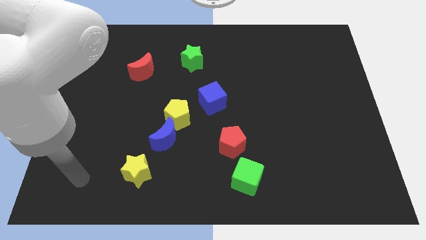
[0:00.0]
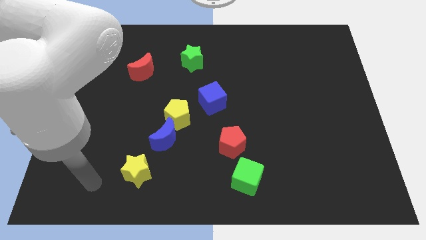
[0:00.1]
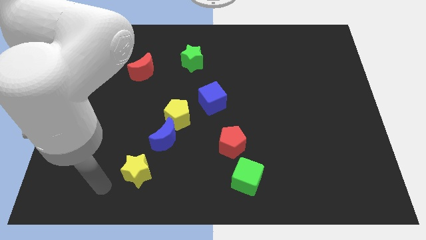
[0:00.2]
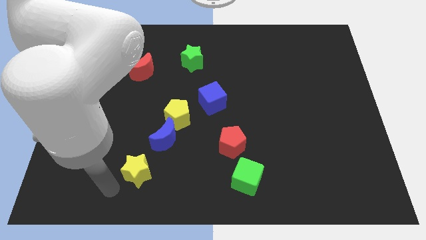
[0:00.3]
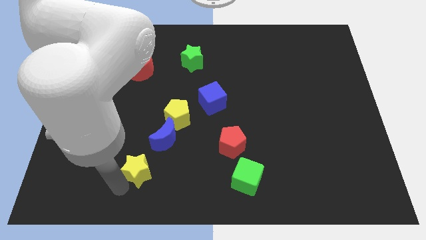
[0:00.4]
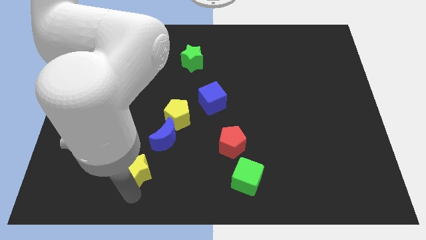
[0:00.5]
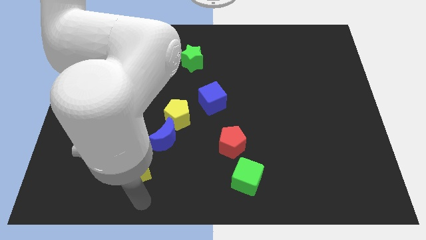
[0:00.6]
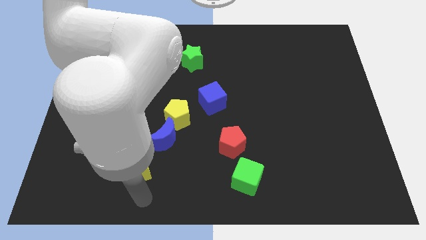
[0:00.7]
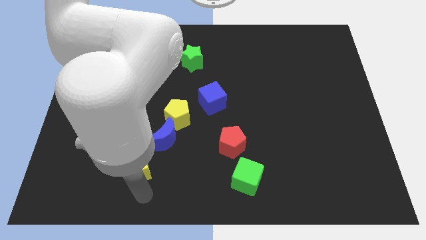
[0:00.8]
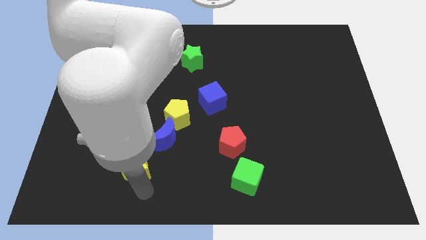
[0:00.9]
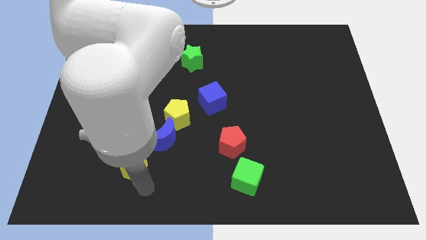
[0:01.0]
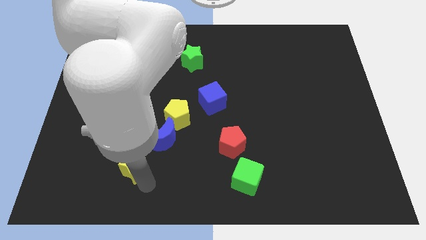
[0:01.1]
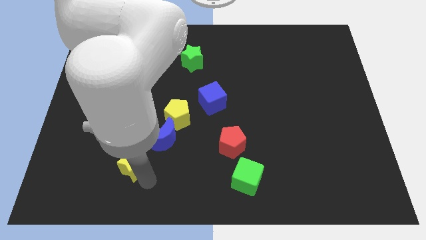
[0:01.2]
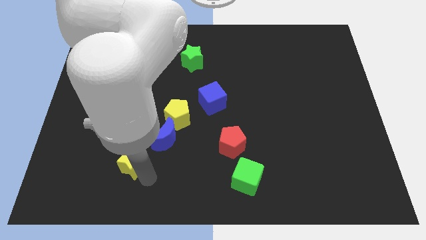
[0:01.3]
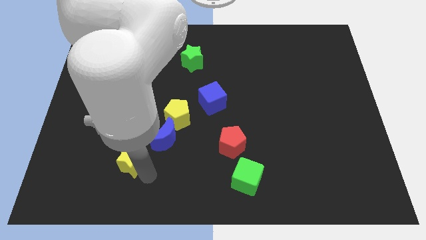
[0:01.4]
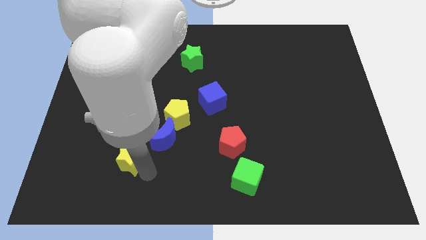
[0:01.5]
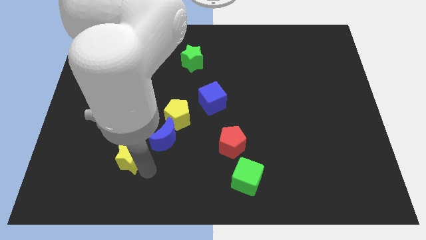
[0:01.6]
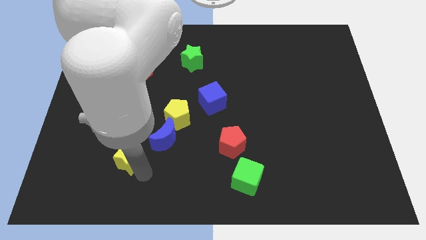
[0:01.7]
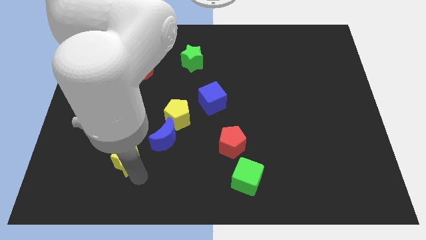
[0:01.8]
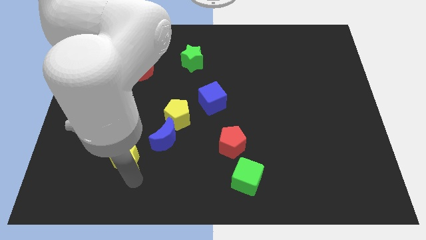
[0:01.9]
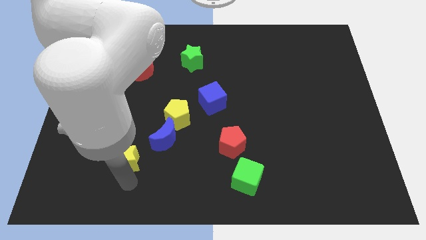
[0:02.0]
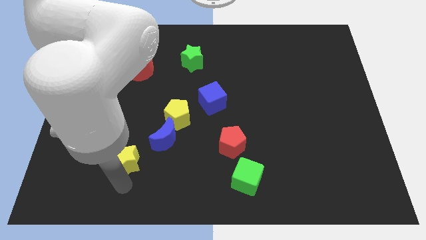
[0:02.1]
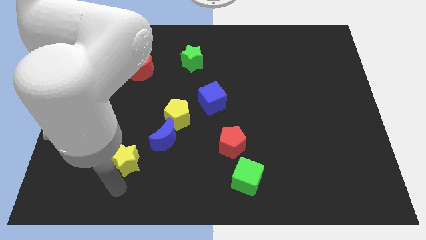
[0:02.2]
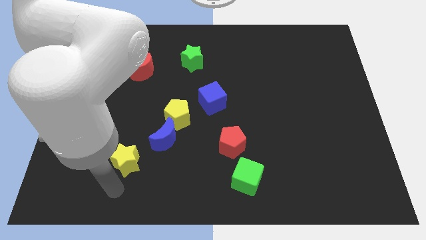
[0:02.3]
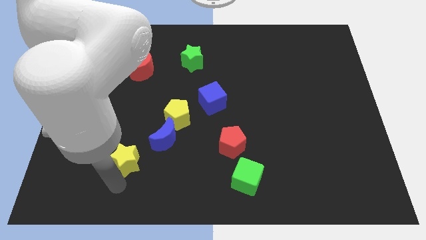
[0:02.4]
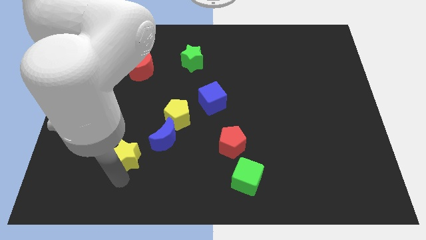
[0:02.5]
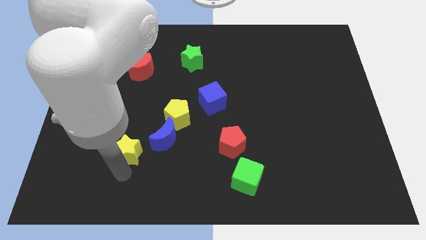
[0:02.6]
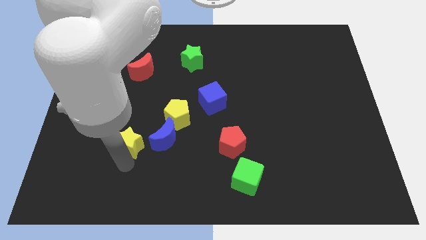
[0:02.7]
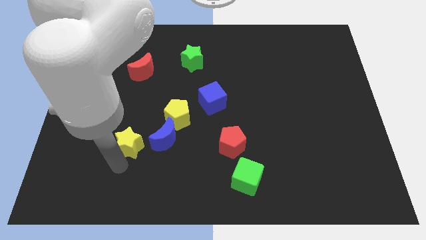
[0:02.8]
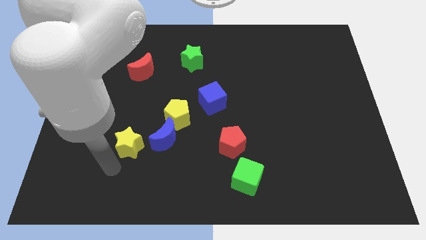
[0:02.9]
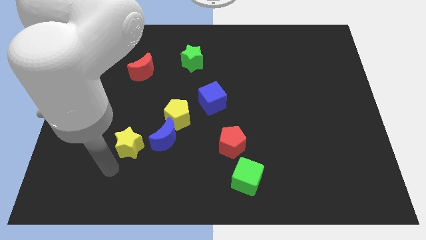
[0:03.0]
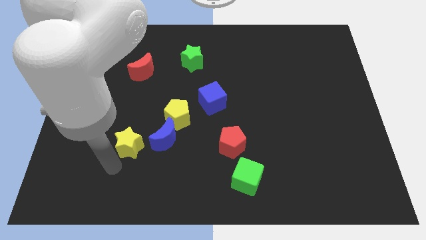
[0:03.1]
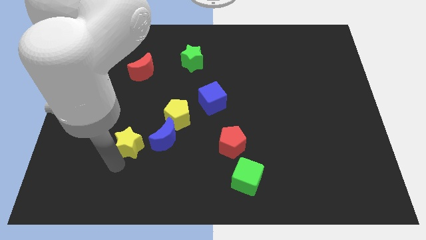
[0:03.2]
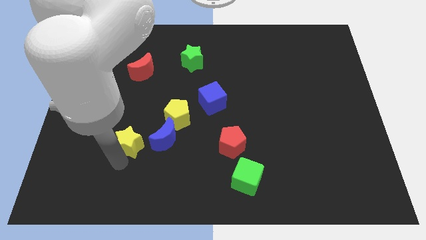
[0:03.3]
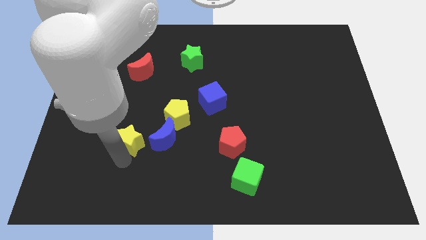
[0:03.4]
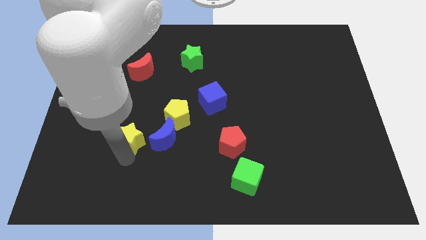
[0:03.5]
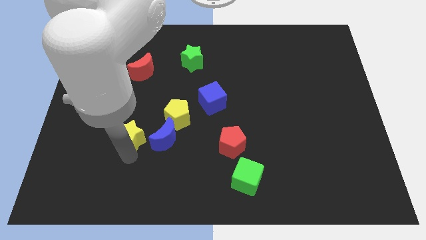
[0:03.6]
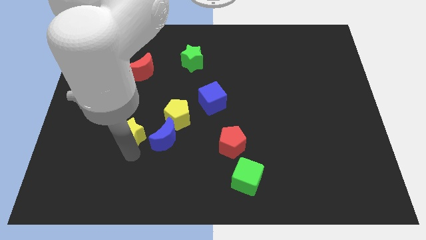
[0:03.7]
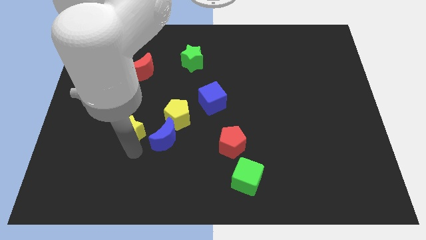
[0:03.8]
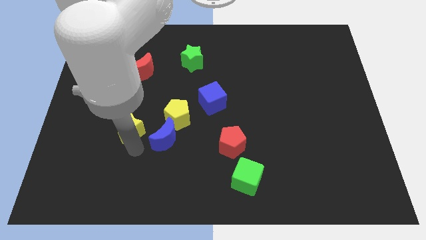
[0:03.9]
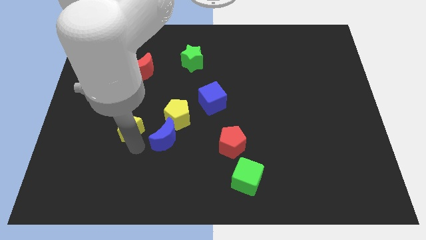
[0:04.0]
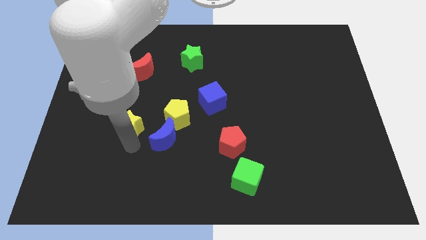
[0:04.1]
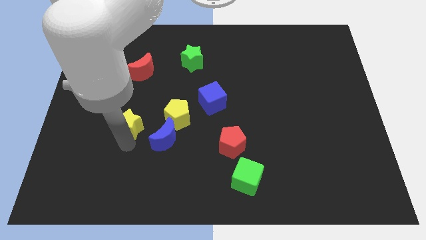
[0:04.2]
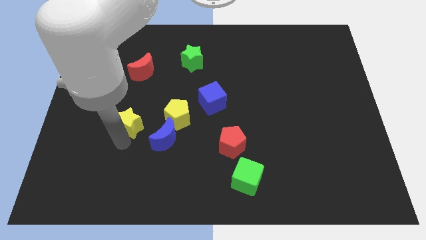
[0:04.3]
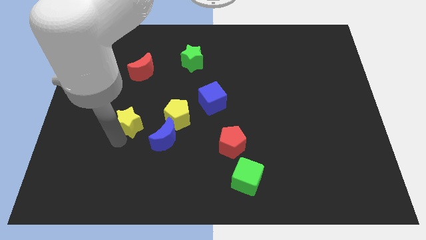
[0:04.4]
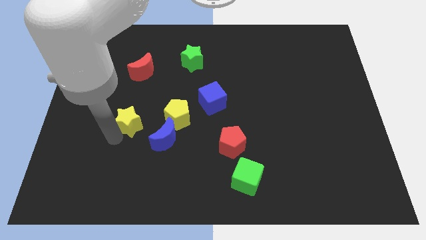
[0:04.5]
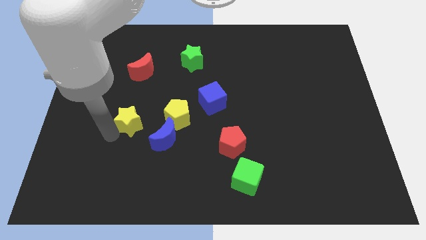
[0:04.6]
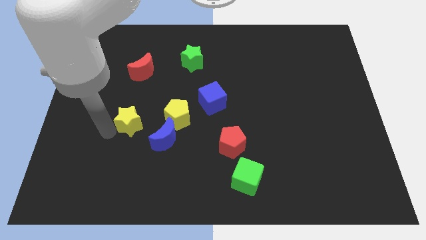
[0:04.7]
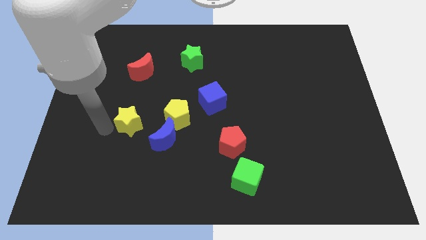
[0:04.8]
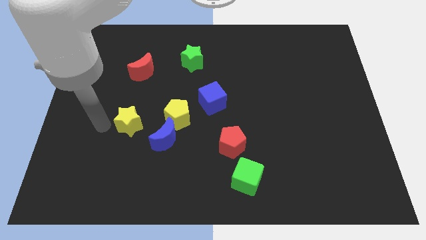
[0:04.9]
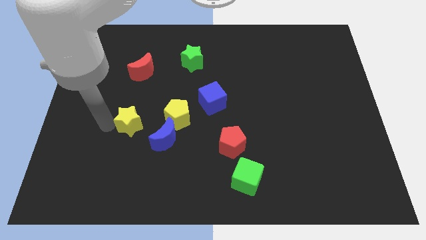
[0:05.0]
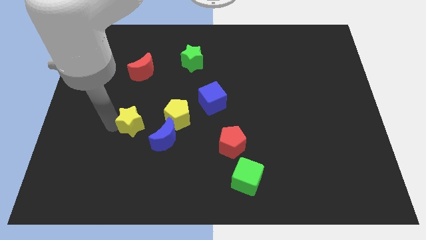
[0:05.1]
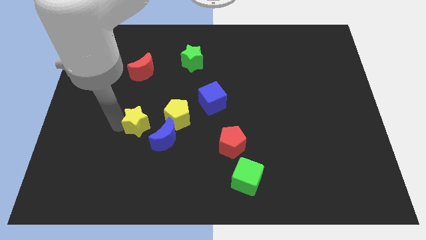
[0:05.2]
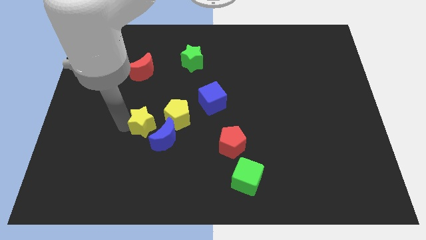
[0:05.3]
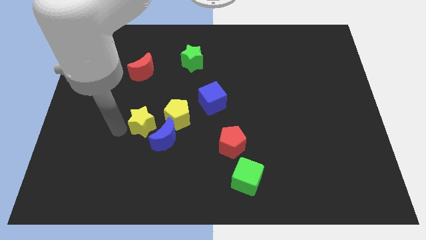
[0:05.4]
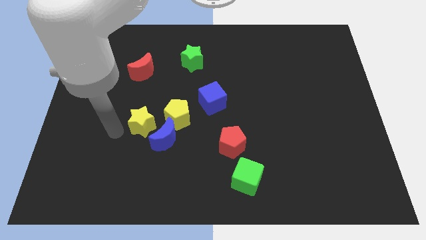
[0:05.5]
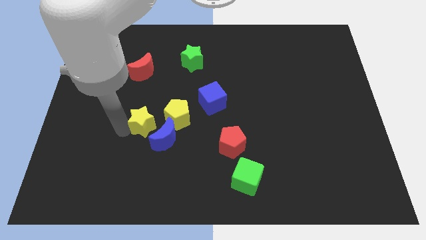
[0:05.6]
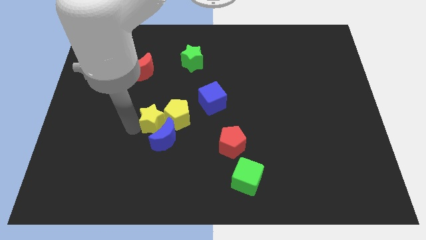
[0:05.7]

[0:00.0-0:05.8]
slide the yellow star next to the yellow pentagon

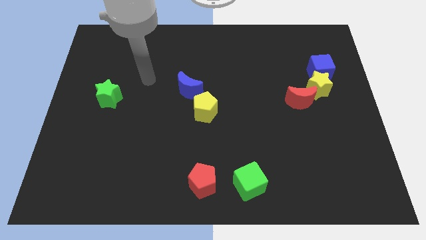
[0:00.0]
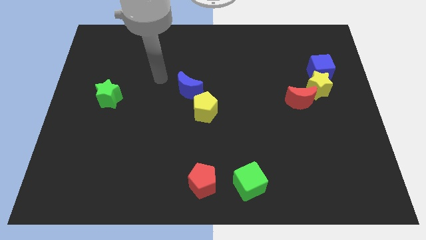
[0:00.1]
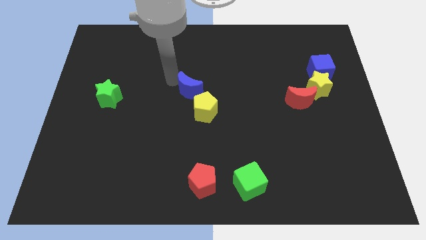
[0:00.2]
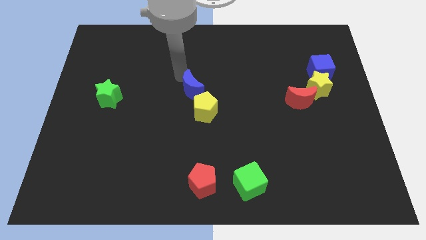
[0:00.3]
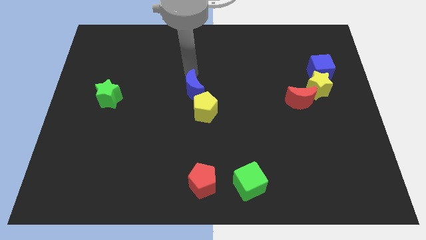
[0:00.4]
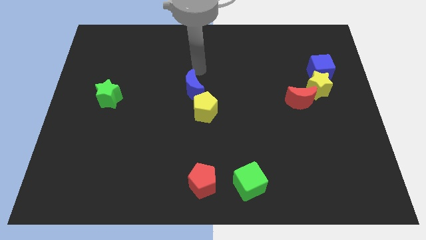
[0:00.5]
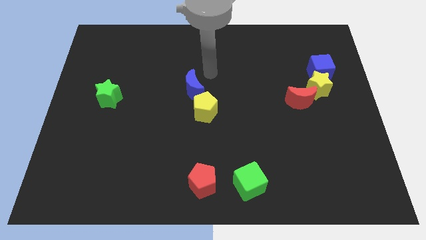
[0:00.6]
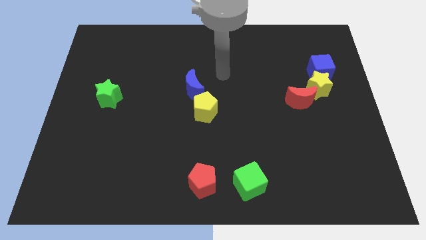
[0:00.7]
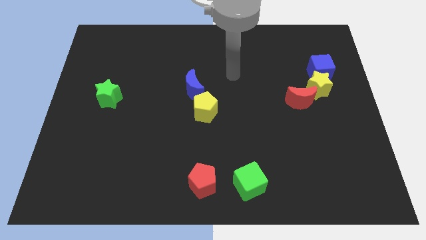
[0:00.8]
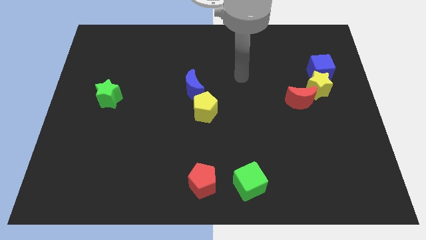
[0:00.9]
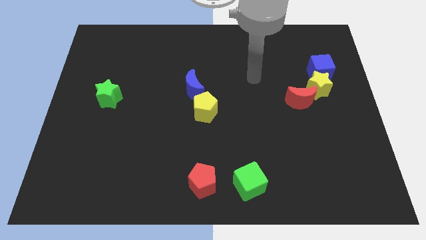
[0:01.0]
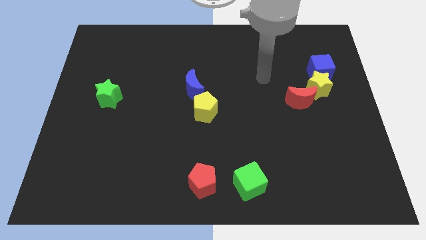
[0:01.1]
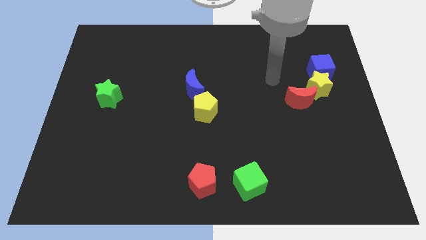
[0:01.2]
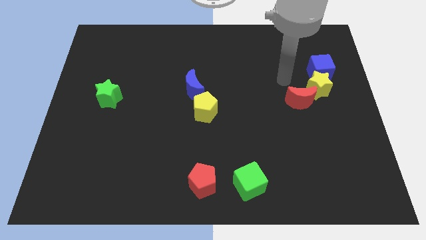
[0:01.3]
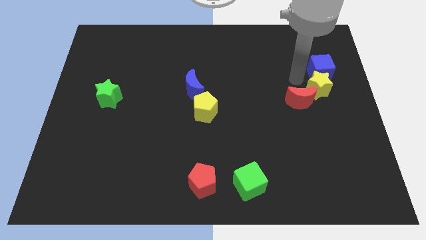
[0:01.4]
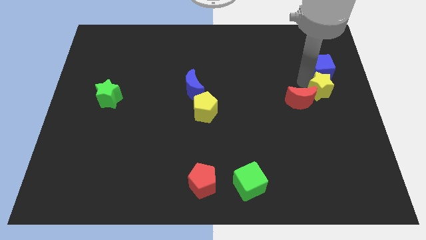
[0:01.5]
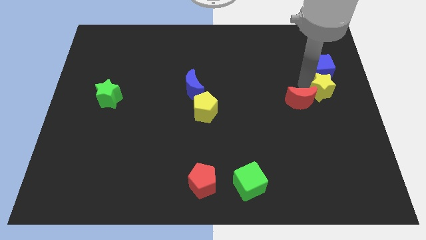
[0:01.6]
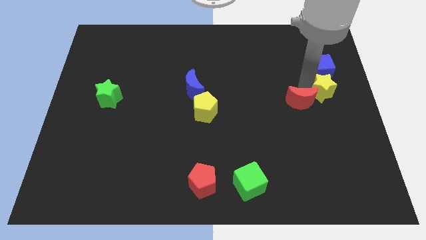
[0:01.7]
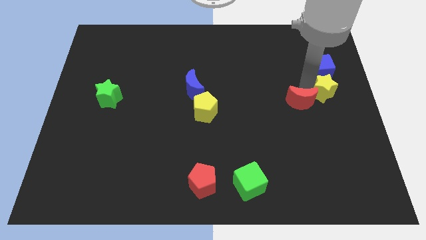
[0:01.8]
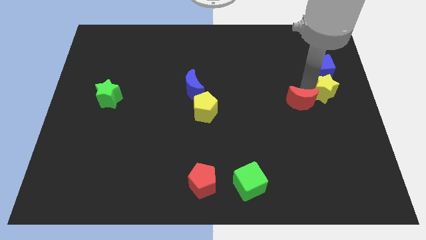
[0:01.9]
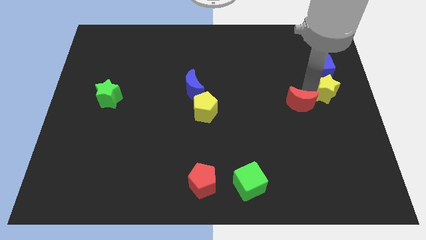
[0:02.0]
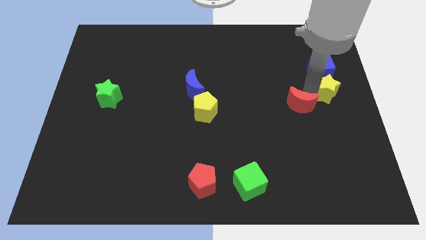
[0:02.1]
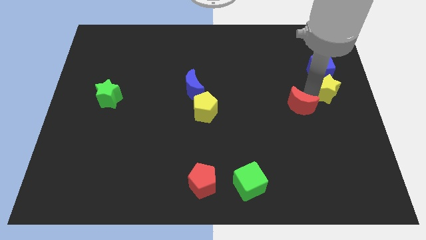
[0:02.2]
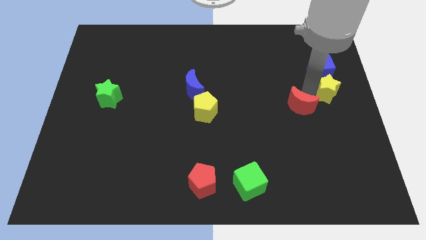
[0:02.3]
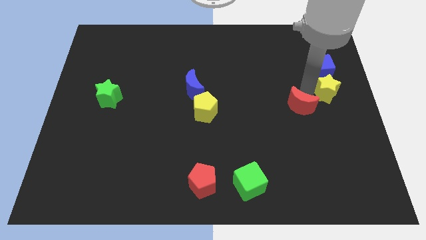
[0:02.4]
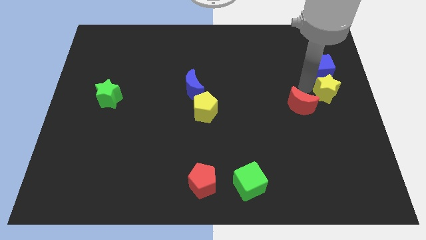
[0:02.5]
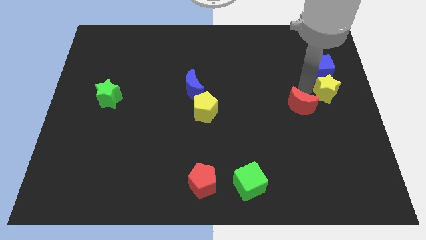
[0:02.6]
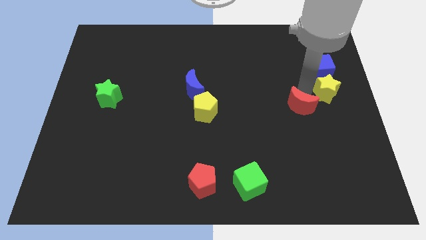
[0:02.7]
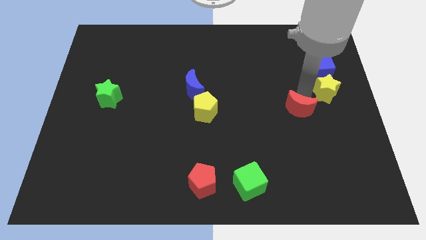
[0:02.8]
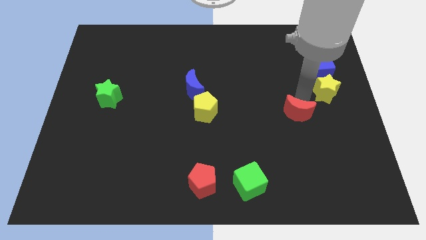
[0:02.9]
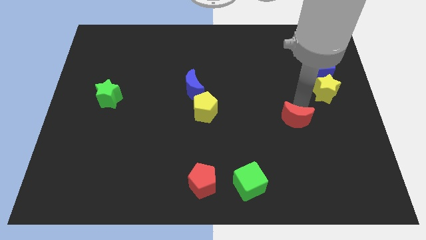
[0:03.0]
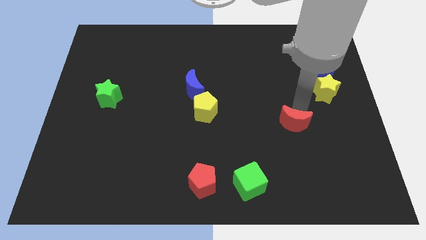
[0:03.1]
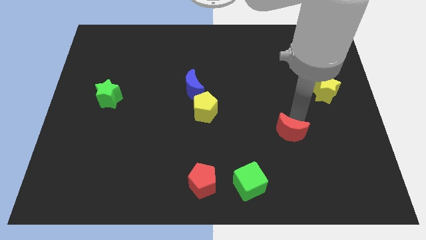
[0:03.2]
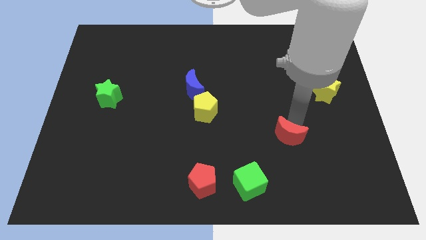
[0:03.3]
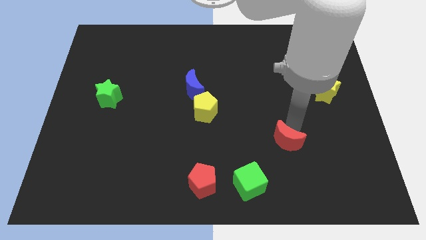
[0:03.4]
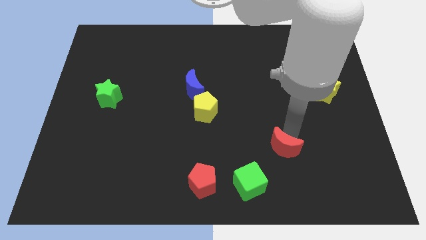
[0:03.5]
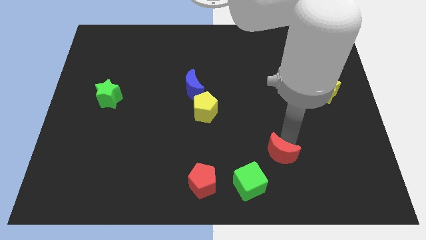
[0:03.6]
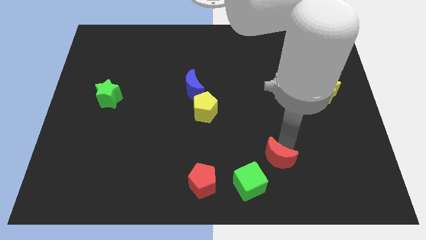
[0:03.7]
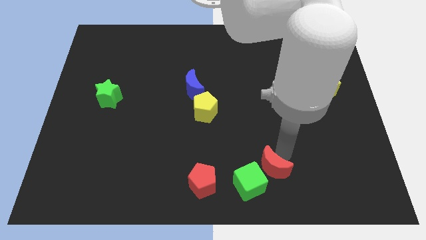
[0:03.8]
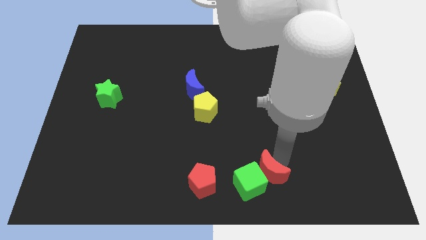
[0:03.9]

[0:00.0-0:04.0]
put the red moon close to the green cube
